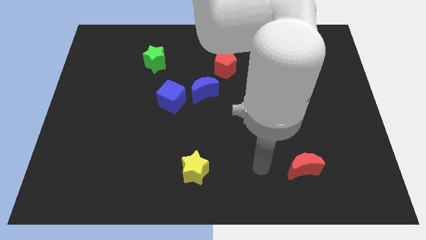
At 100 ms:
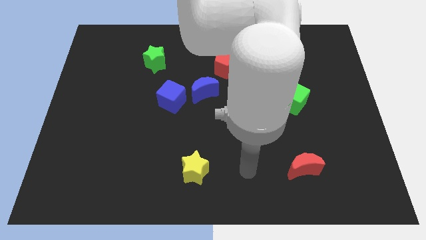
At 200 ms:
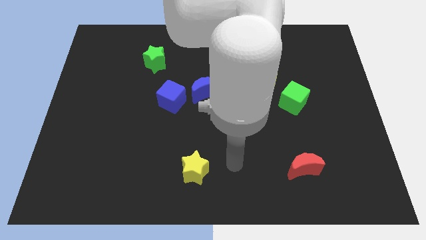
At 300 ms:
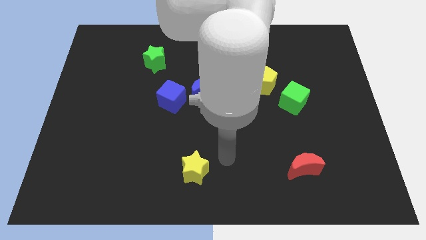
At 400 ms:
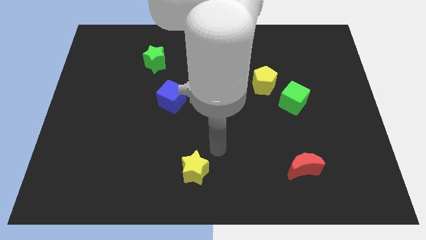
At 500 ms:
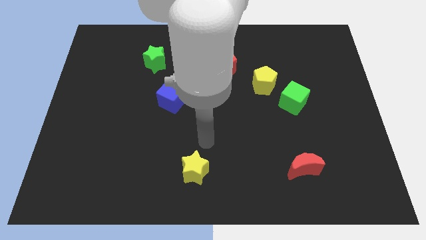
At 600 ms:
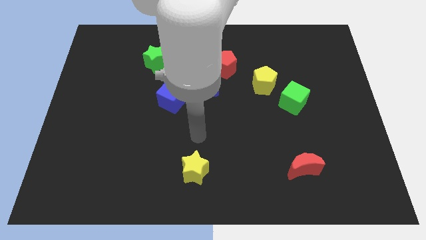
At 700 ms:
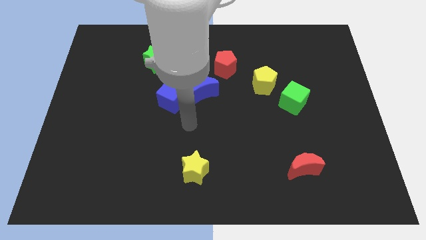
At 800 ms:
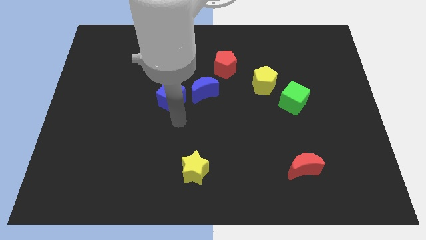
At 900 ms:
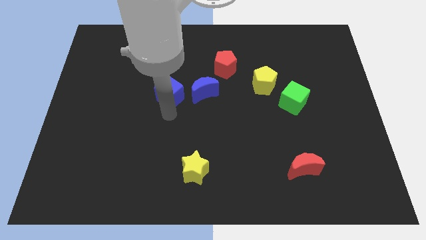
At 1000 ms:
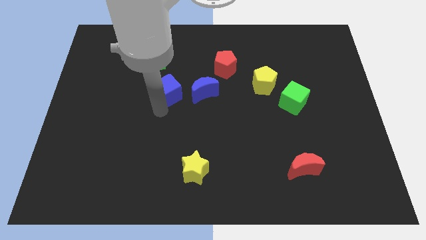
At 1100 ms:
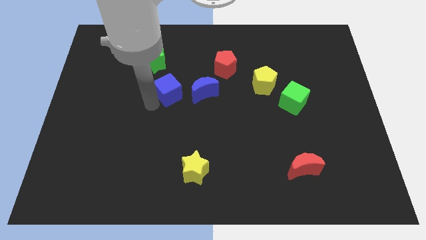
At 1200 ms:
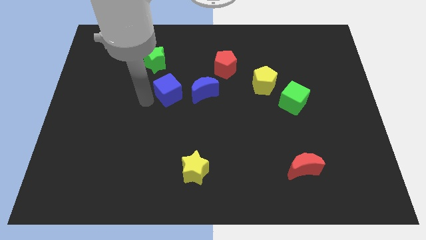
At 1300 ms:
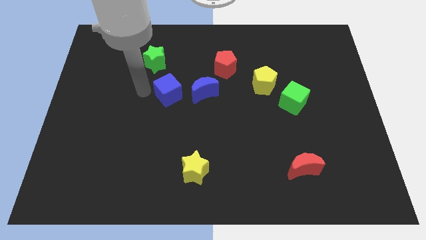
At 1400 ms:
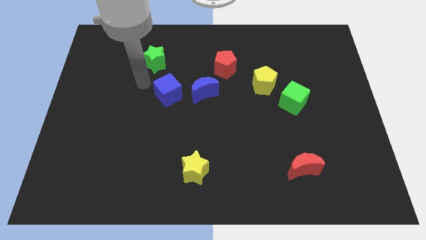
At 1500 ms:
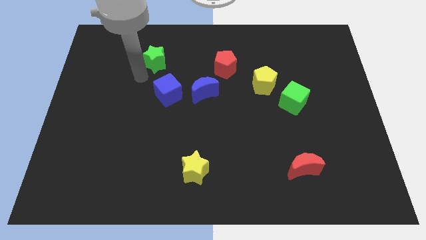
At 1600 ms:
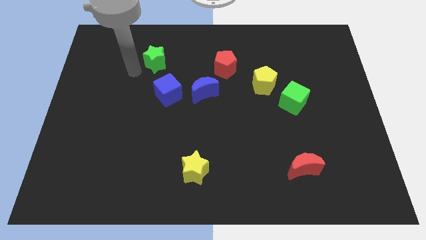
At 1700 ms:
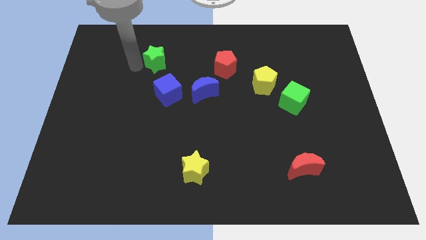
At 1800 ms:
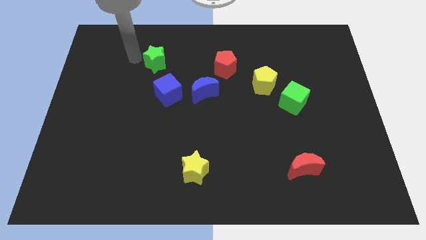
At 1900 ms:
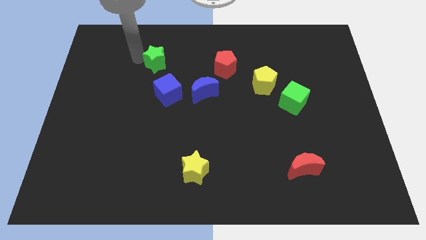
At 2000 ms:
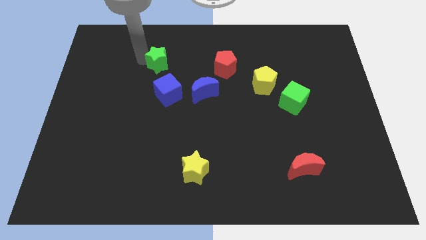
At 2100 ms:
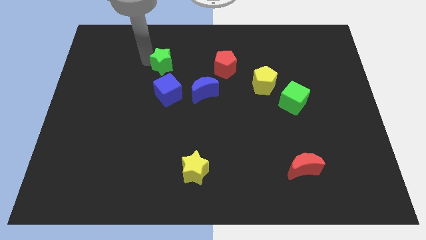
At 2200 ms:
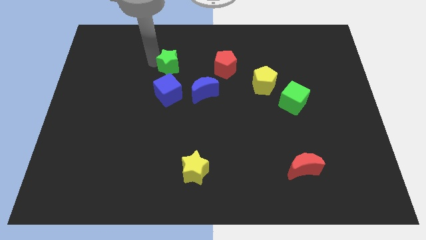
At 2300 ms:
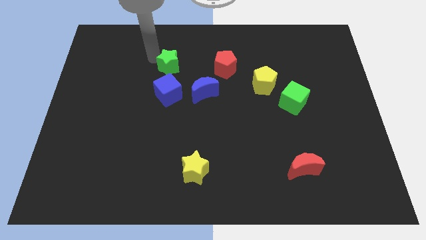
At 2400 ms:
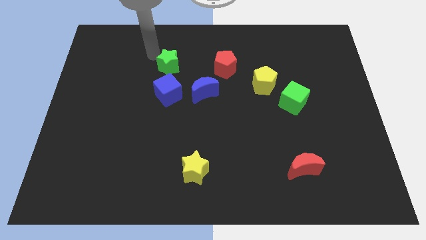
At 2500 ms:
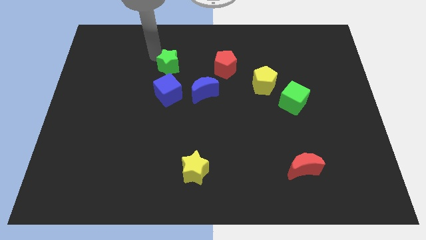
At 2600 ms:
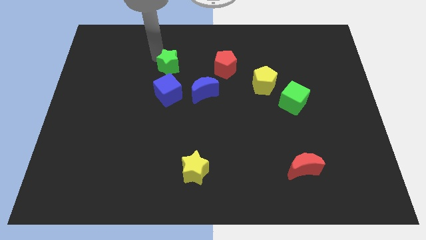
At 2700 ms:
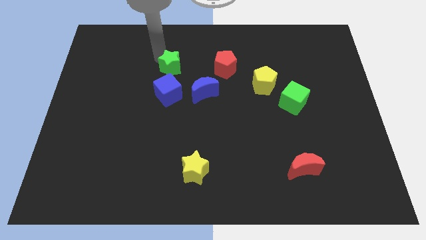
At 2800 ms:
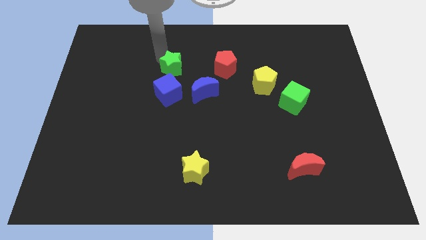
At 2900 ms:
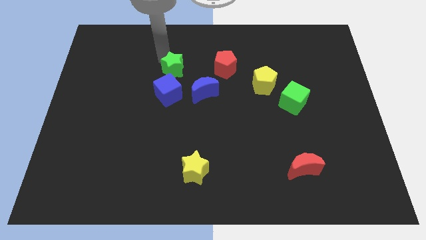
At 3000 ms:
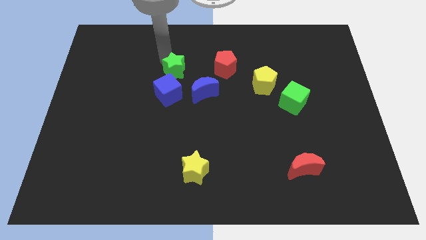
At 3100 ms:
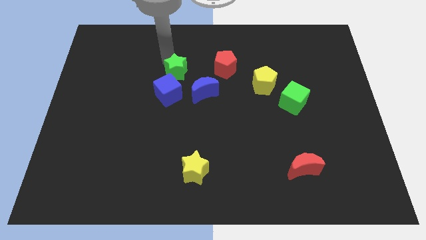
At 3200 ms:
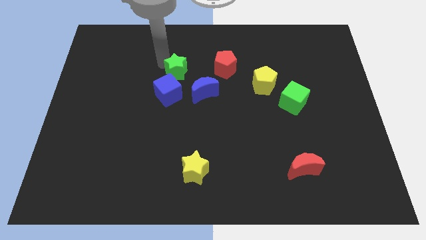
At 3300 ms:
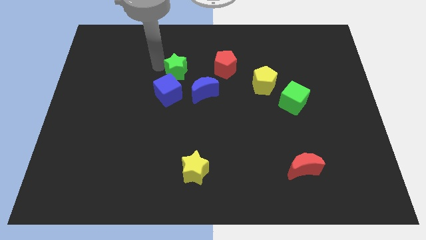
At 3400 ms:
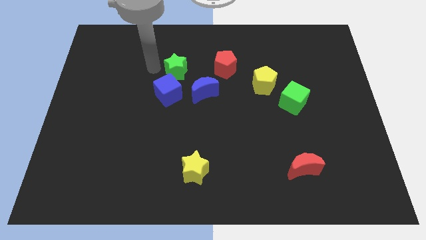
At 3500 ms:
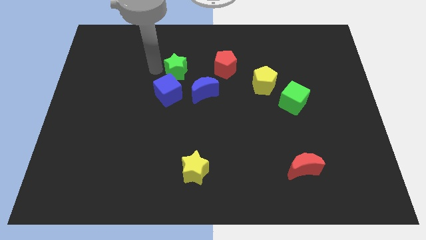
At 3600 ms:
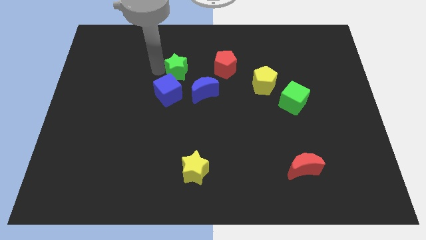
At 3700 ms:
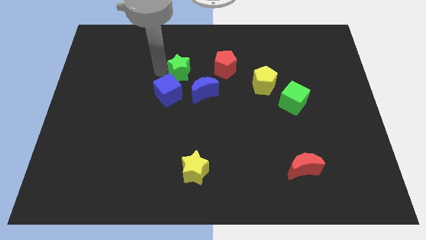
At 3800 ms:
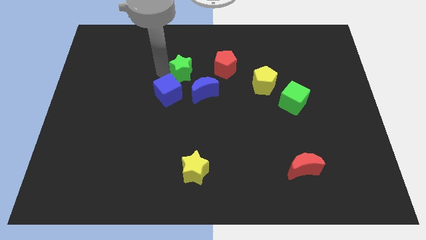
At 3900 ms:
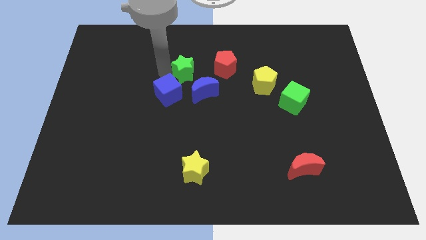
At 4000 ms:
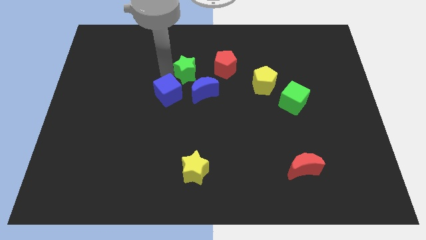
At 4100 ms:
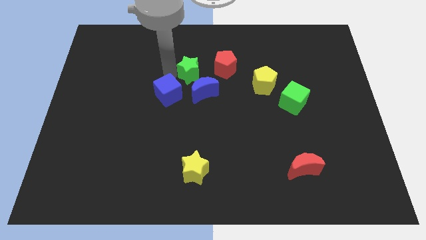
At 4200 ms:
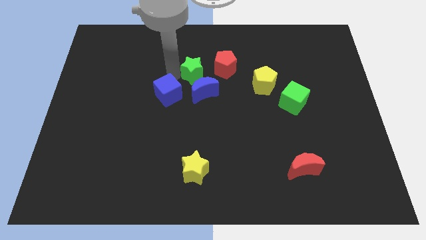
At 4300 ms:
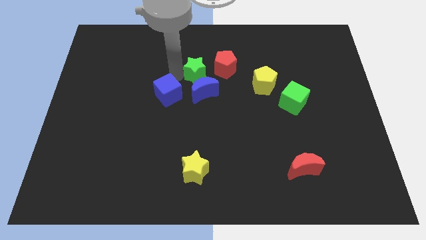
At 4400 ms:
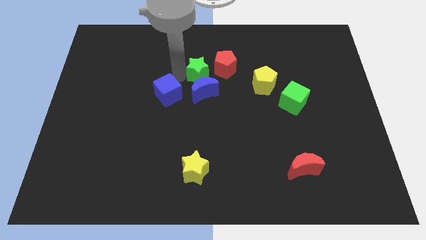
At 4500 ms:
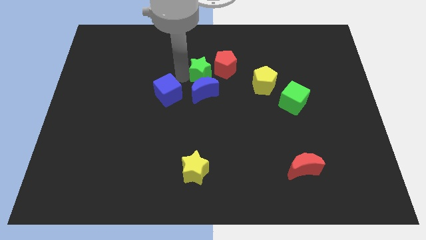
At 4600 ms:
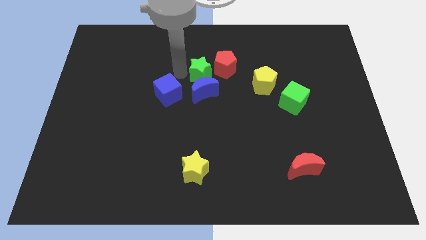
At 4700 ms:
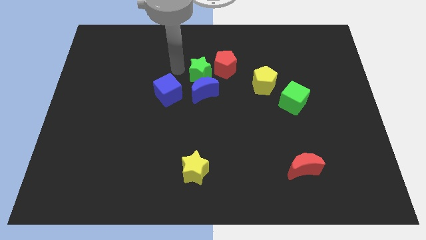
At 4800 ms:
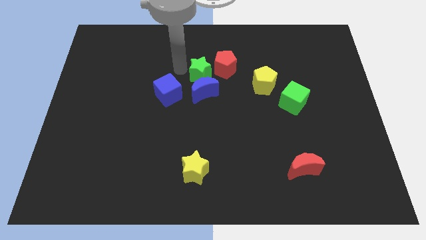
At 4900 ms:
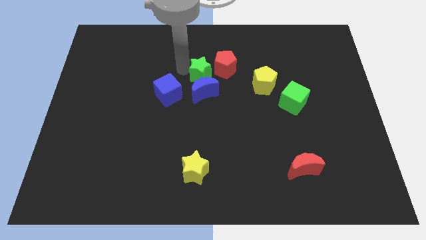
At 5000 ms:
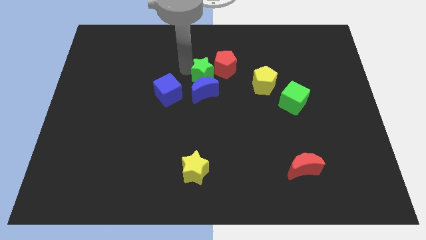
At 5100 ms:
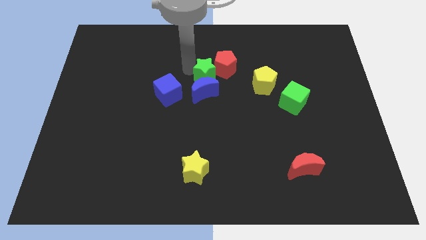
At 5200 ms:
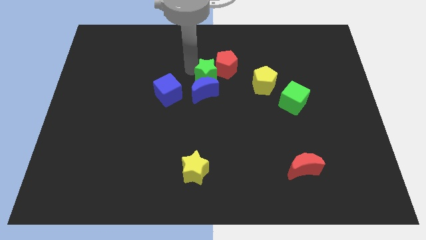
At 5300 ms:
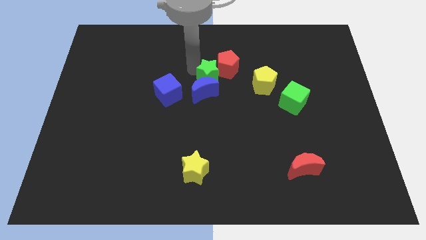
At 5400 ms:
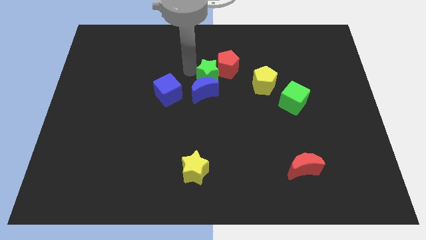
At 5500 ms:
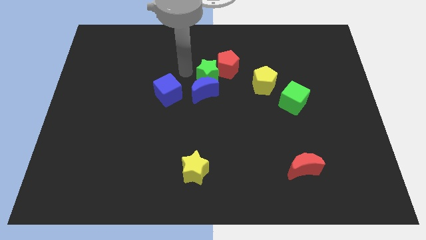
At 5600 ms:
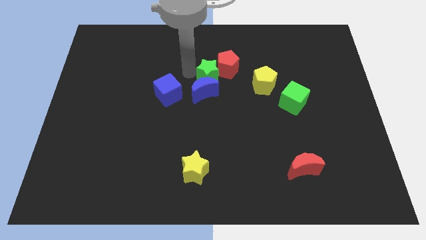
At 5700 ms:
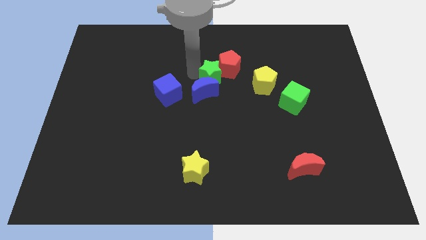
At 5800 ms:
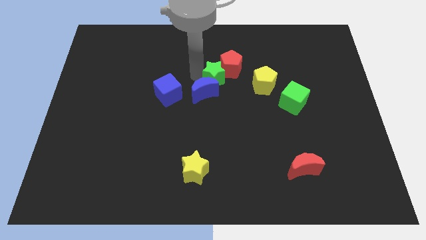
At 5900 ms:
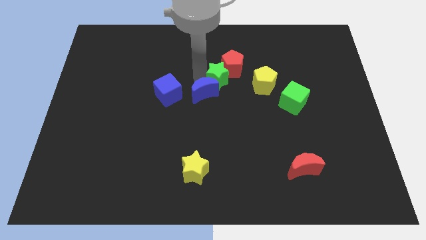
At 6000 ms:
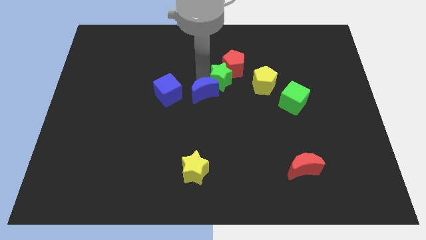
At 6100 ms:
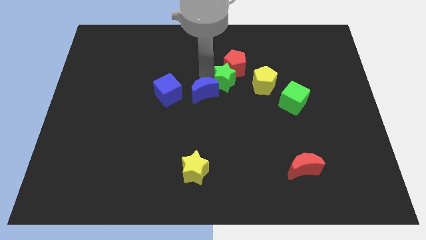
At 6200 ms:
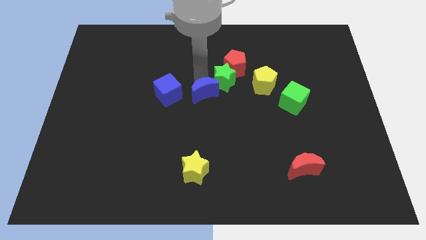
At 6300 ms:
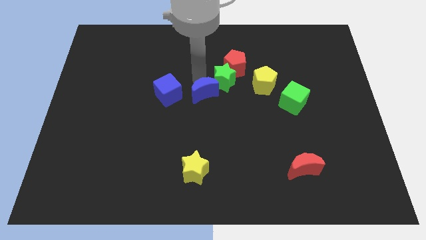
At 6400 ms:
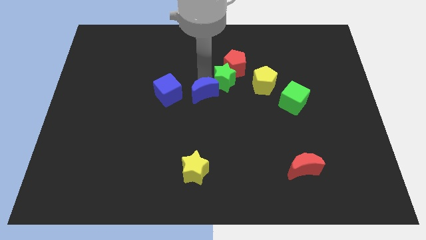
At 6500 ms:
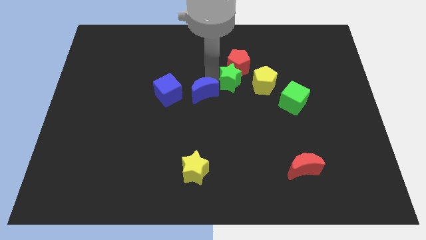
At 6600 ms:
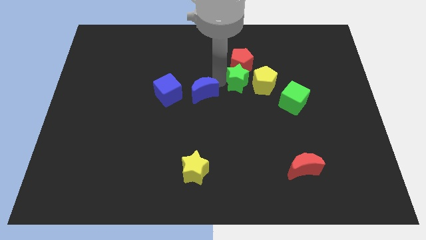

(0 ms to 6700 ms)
move the green star to the bottom right of the red pentagon
